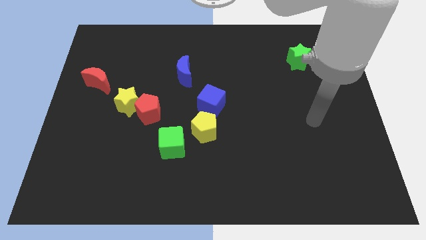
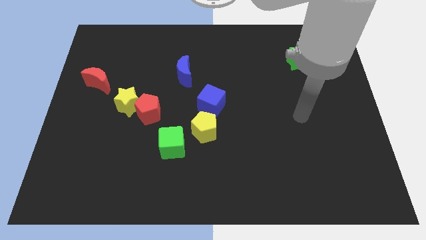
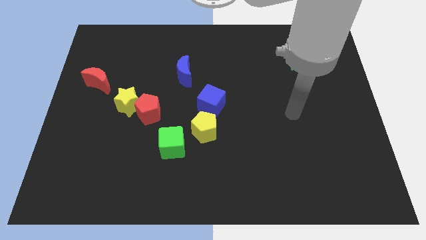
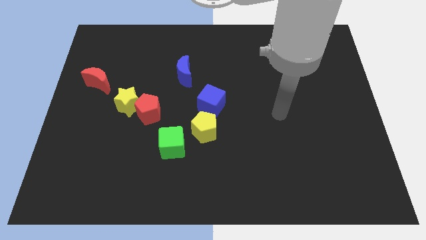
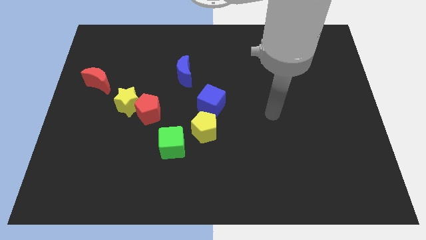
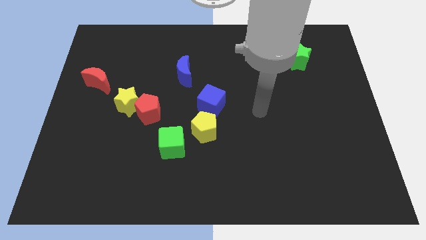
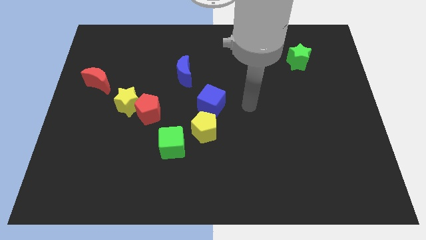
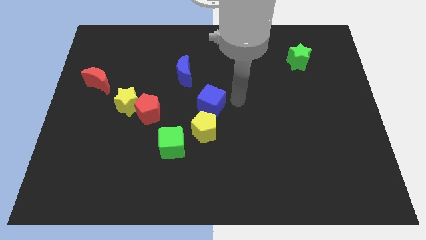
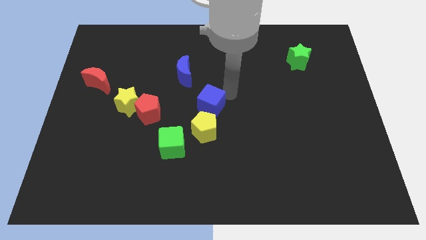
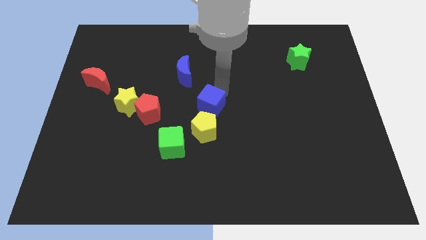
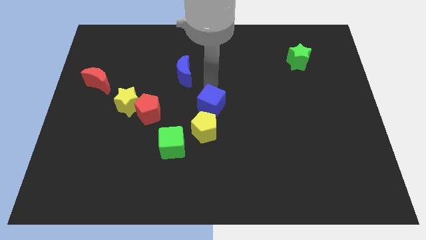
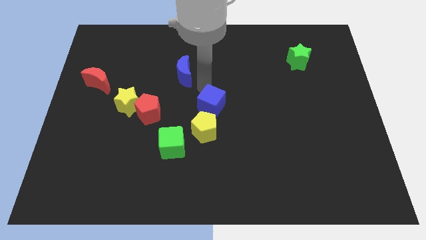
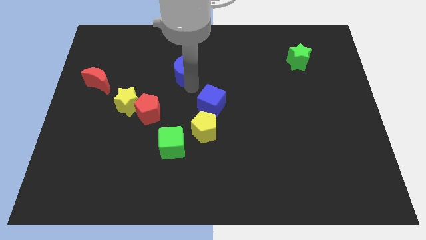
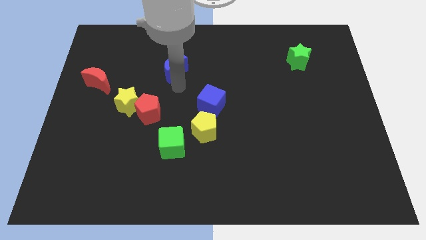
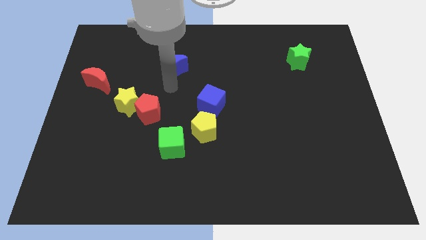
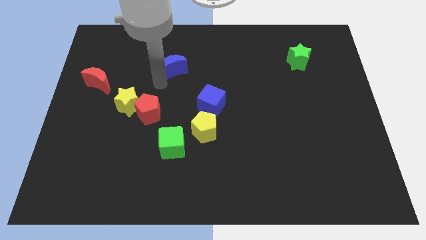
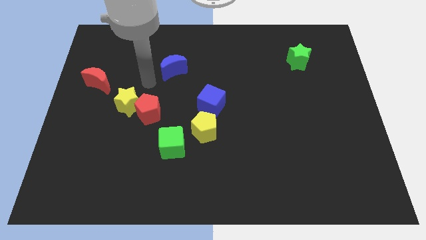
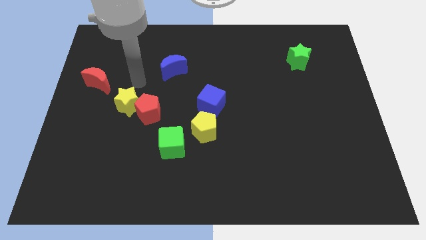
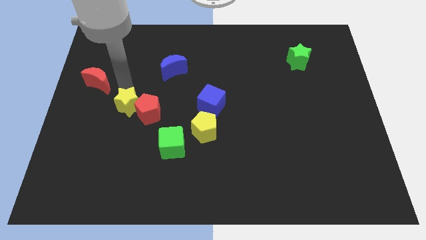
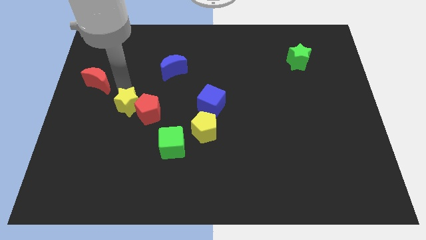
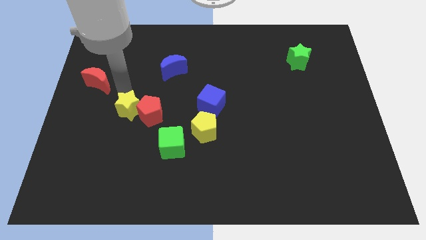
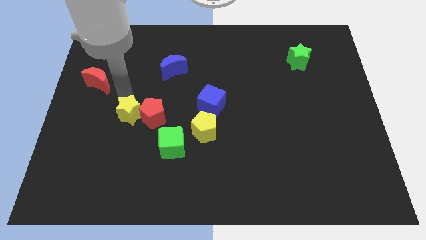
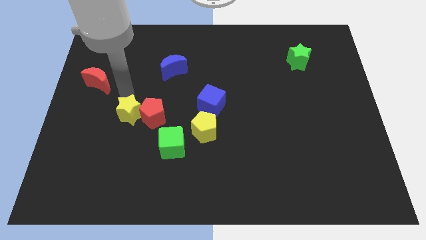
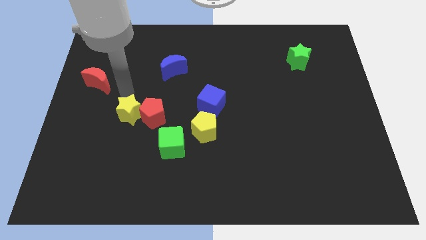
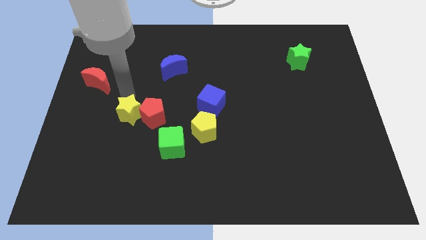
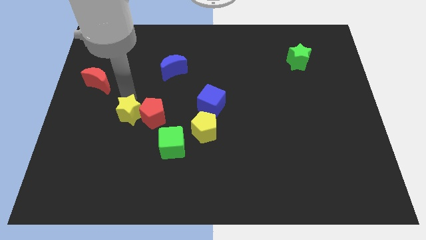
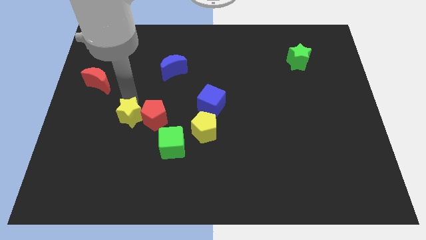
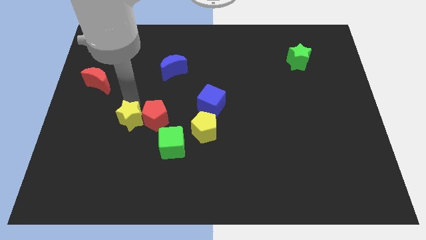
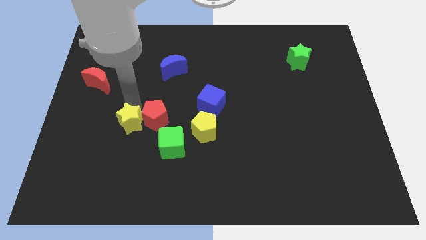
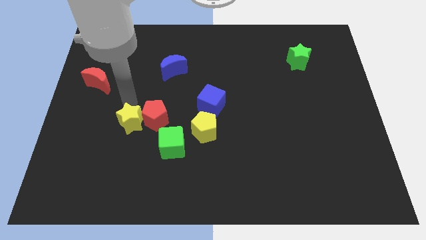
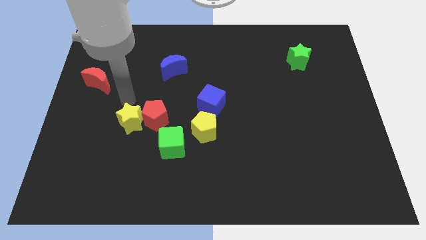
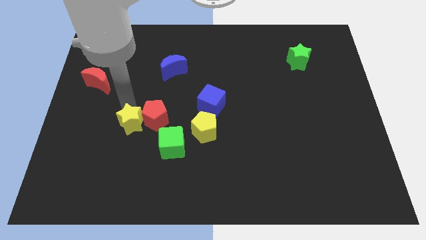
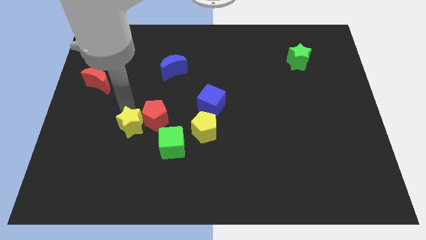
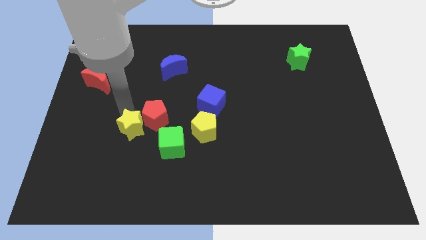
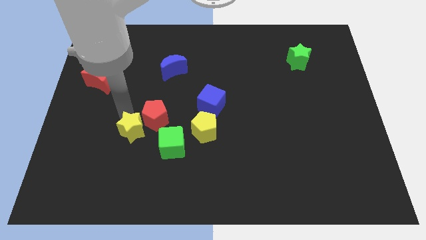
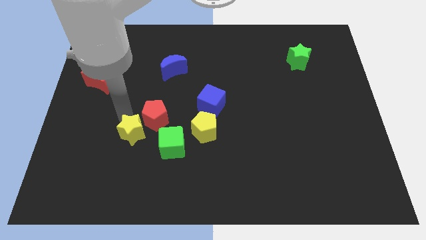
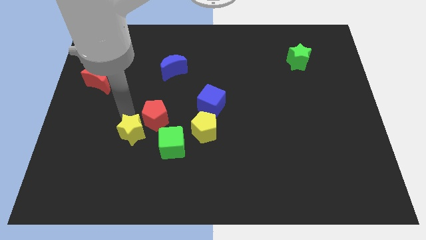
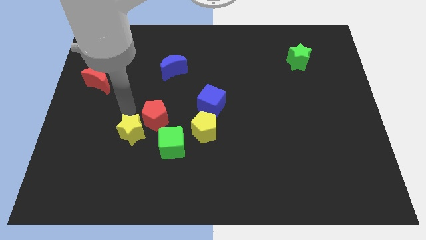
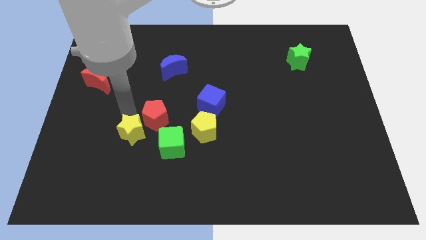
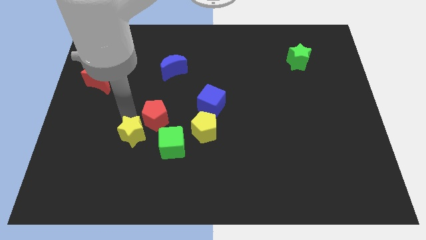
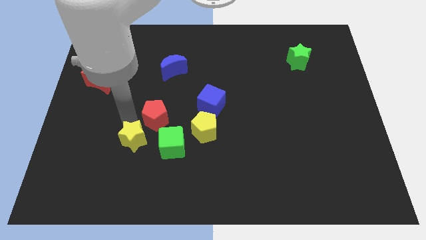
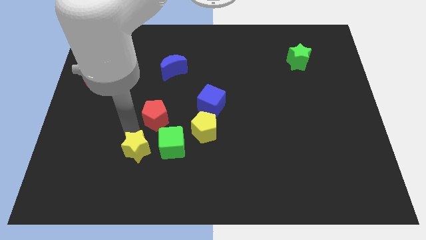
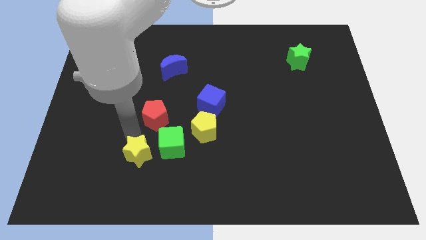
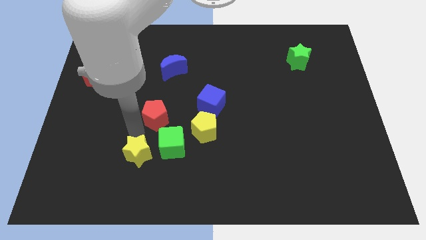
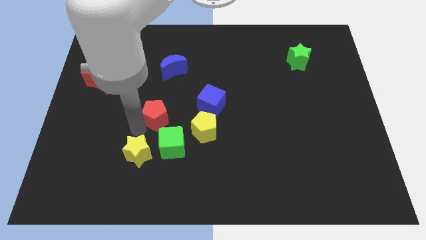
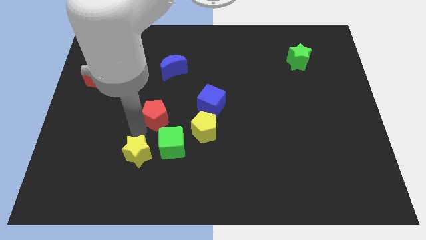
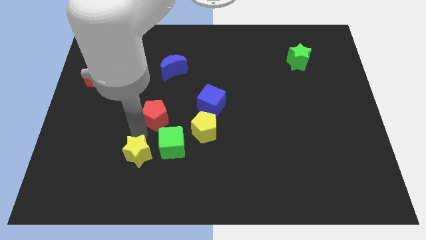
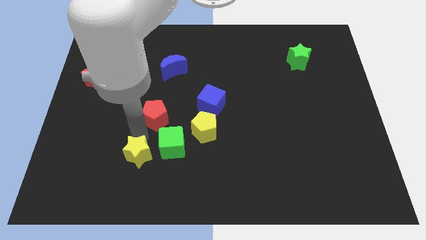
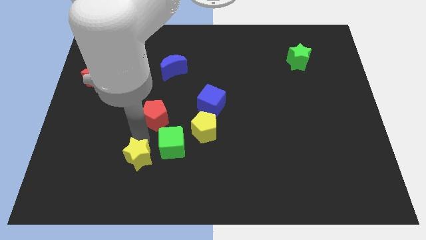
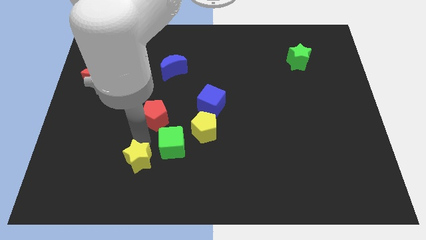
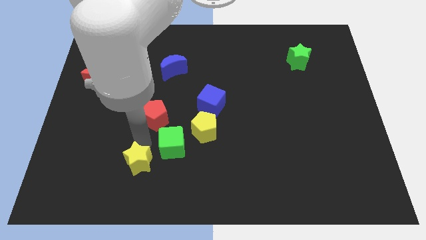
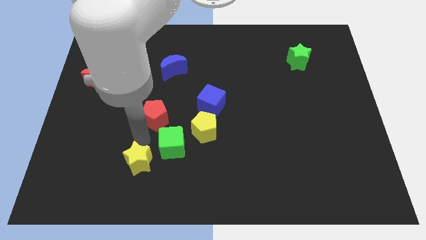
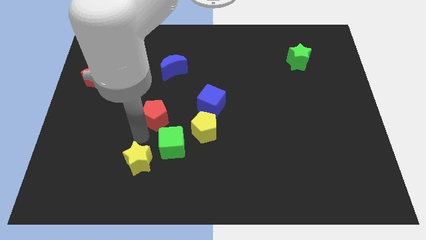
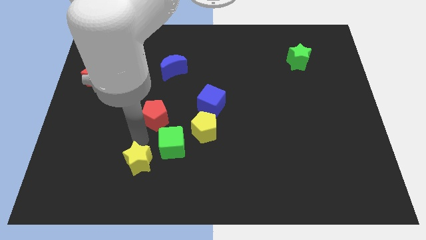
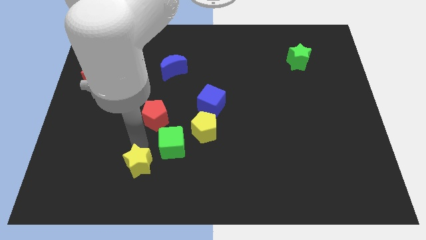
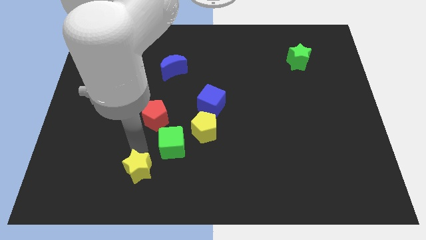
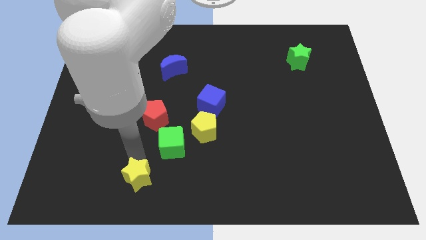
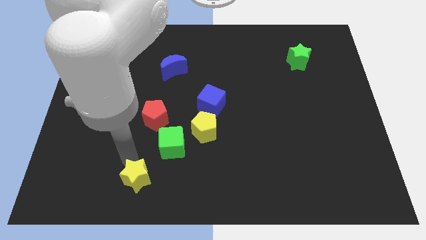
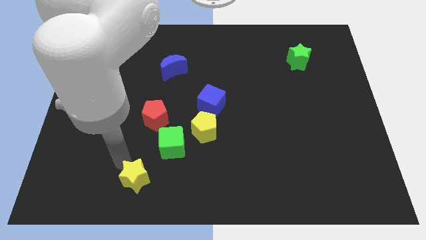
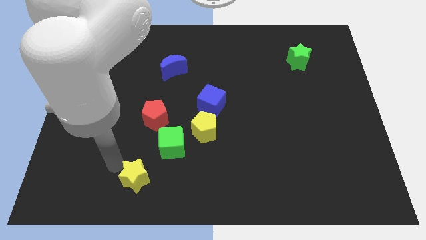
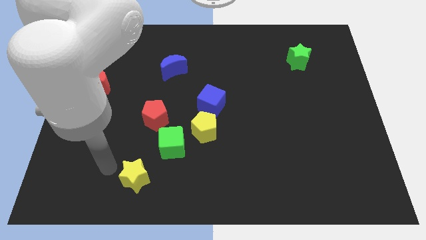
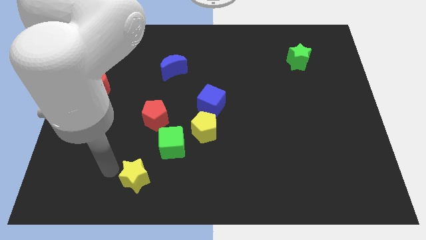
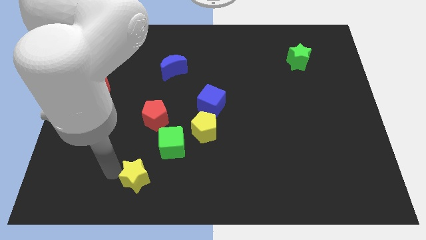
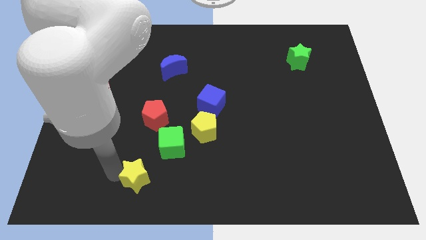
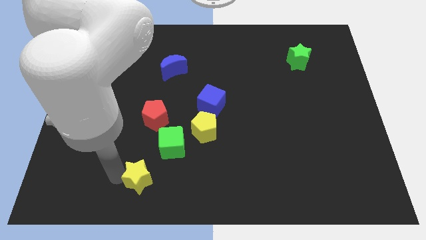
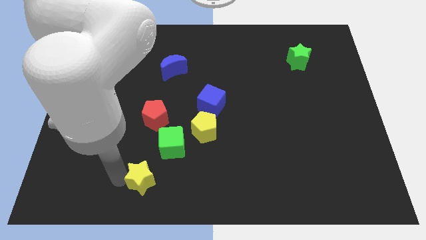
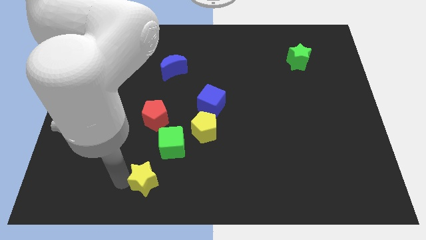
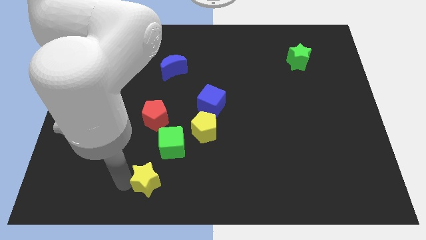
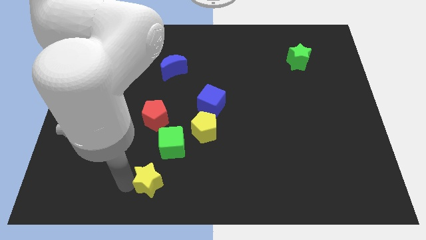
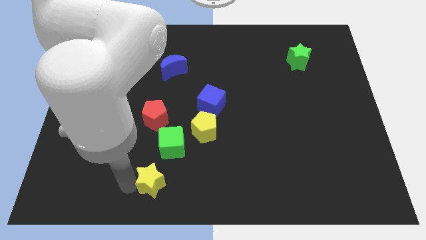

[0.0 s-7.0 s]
push the yellow star to the bottom
